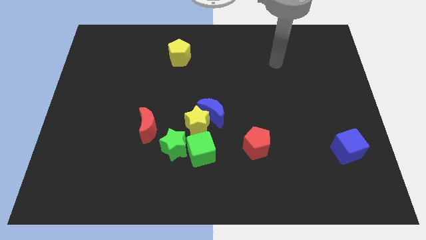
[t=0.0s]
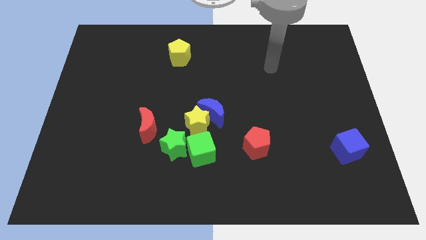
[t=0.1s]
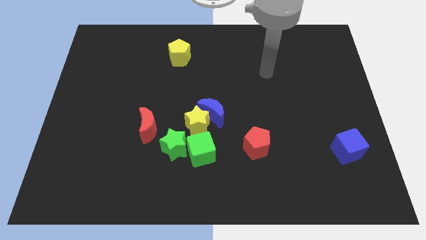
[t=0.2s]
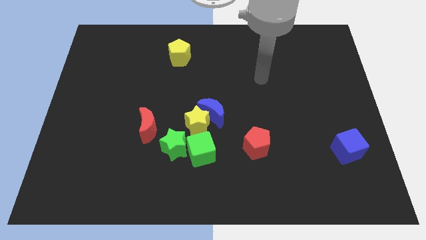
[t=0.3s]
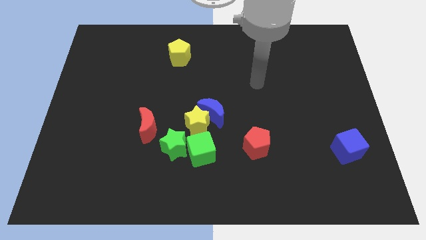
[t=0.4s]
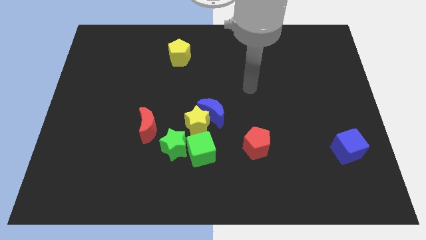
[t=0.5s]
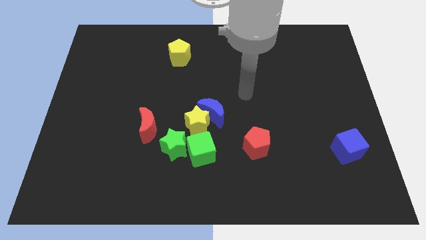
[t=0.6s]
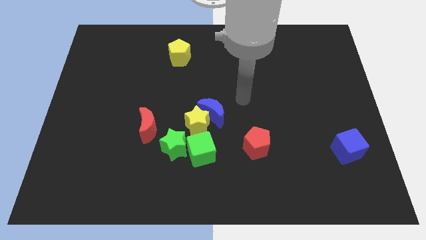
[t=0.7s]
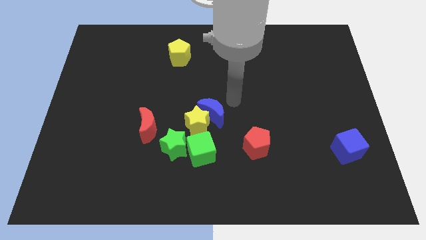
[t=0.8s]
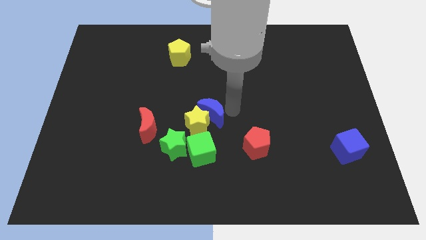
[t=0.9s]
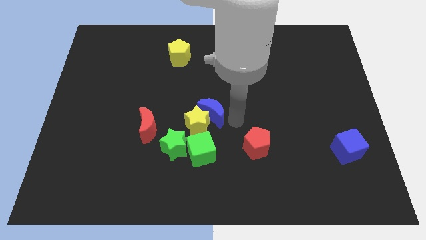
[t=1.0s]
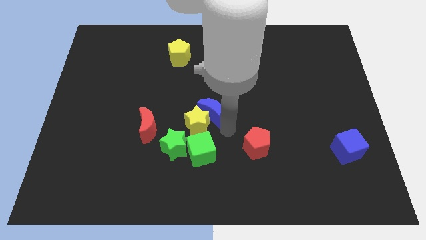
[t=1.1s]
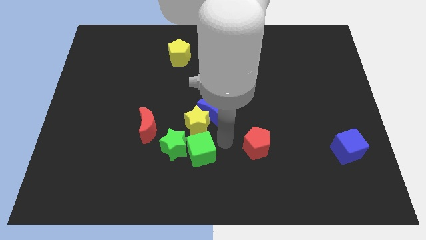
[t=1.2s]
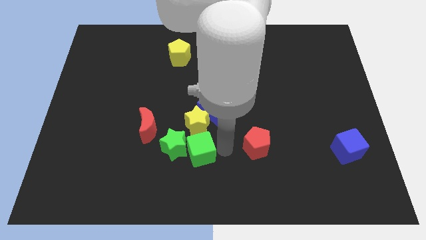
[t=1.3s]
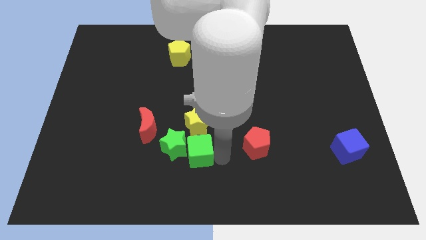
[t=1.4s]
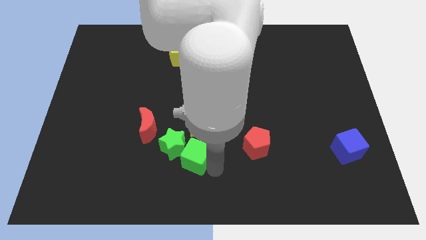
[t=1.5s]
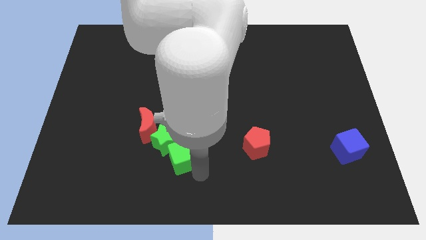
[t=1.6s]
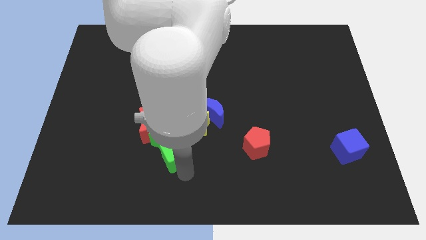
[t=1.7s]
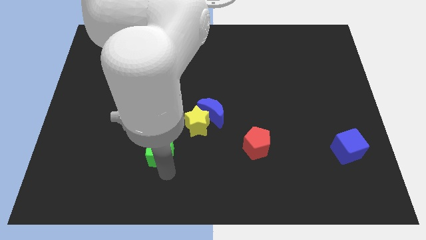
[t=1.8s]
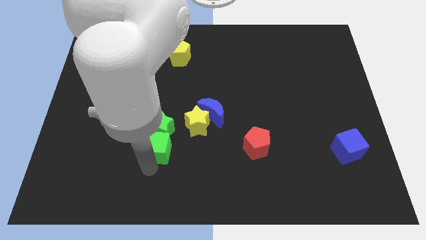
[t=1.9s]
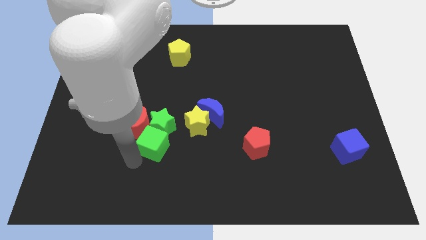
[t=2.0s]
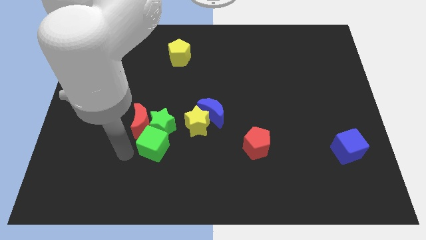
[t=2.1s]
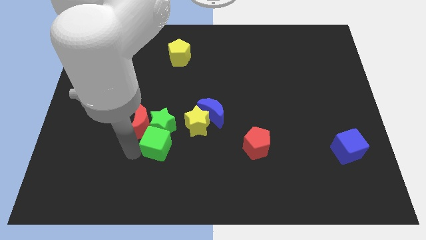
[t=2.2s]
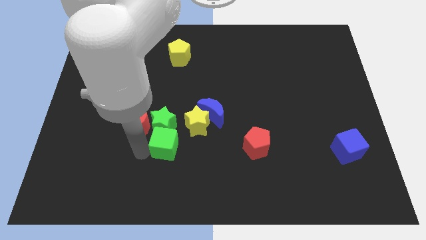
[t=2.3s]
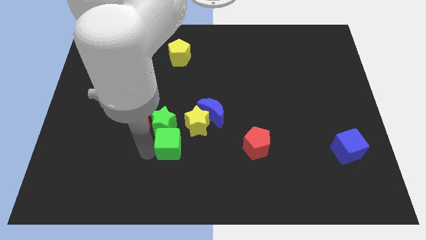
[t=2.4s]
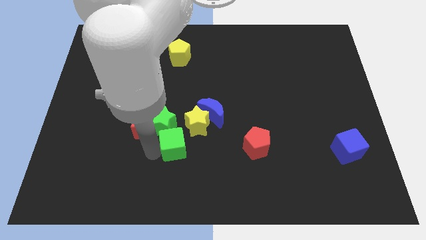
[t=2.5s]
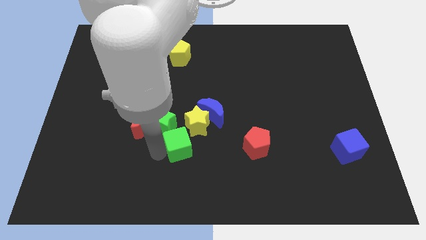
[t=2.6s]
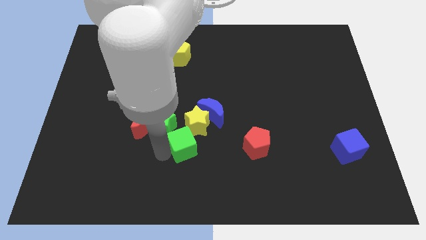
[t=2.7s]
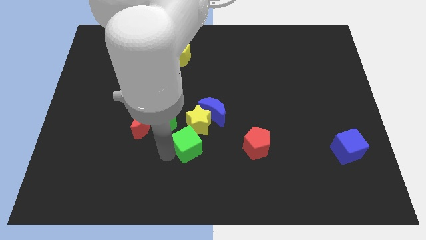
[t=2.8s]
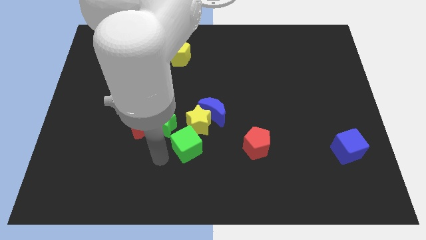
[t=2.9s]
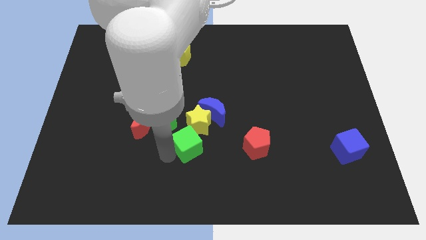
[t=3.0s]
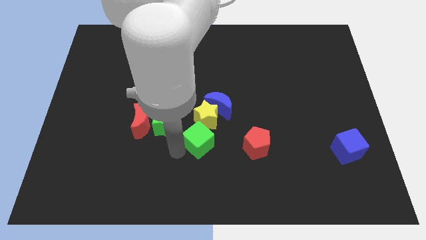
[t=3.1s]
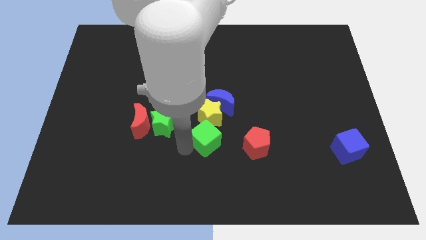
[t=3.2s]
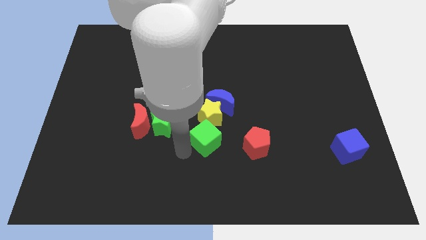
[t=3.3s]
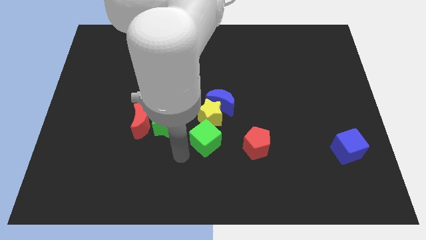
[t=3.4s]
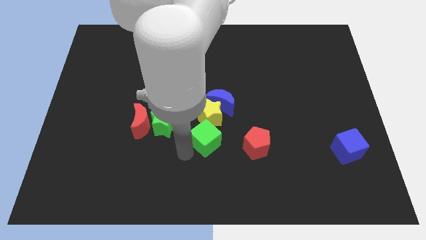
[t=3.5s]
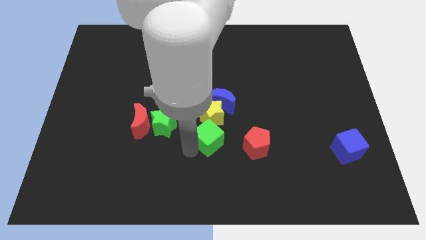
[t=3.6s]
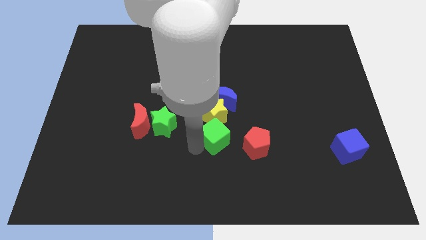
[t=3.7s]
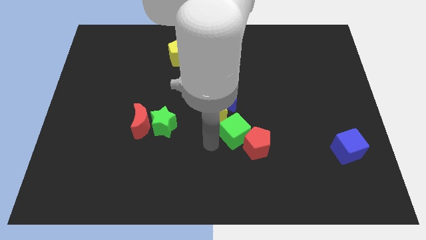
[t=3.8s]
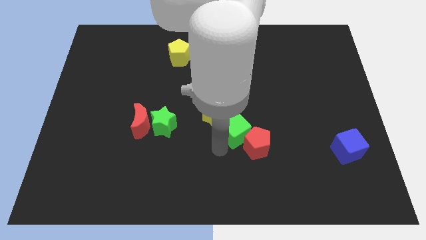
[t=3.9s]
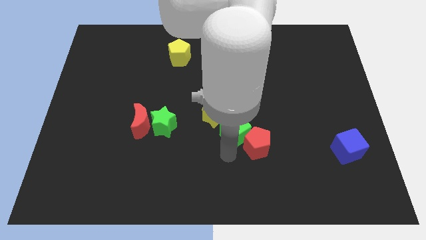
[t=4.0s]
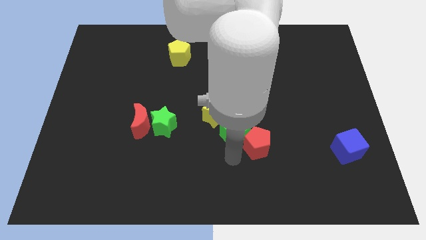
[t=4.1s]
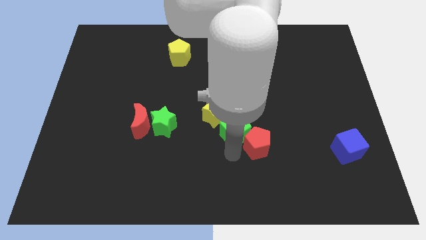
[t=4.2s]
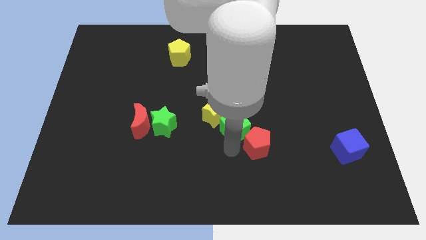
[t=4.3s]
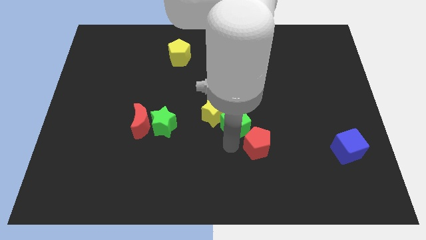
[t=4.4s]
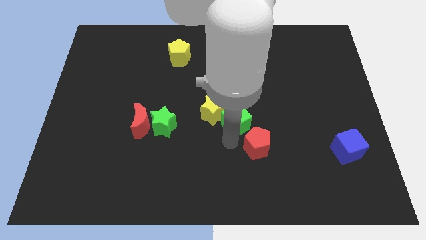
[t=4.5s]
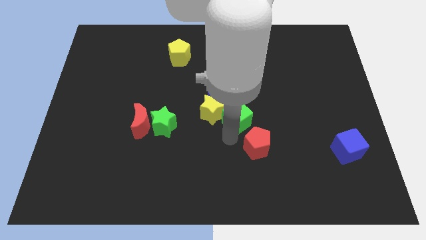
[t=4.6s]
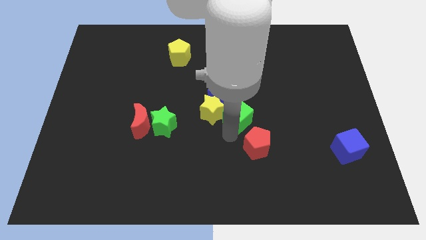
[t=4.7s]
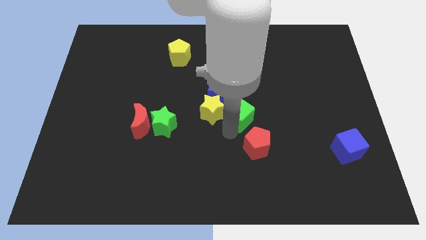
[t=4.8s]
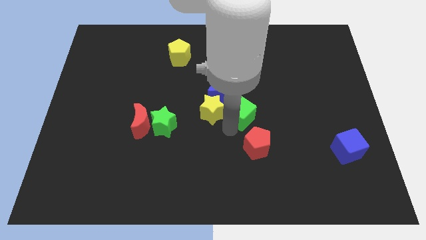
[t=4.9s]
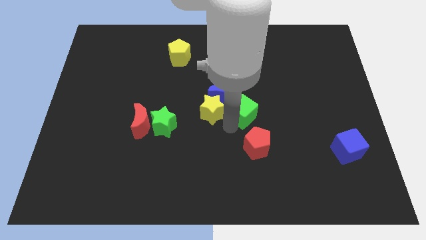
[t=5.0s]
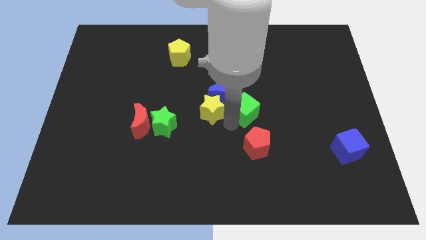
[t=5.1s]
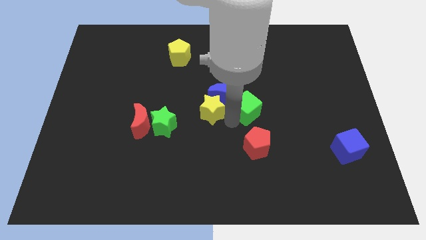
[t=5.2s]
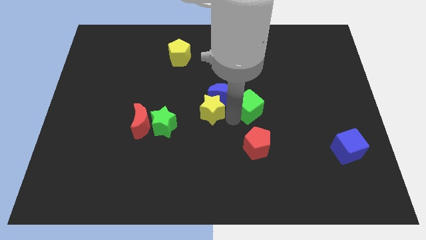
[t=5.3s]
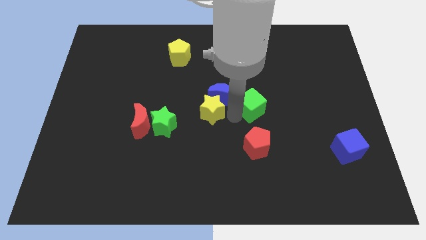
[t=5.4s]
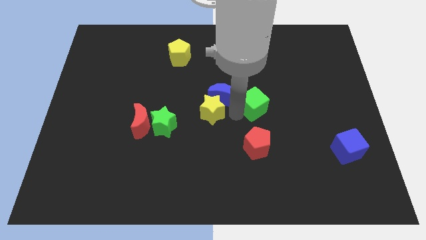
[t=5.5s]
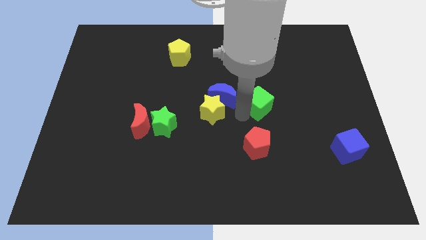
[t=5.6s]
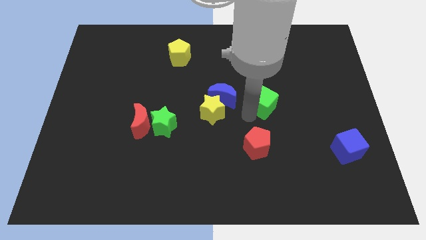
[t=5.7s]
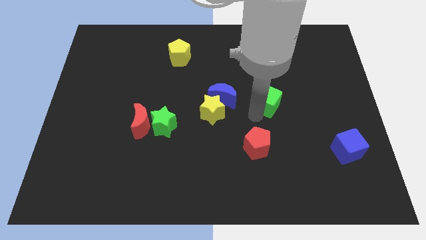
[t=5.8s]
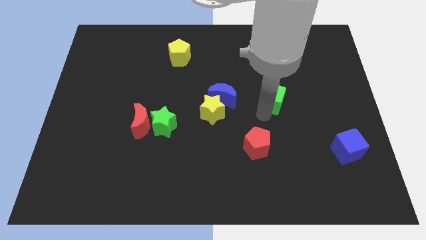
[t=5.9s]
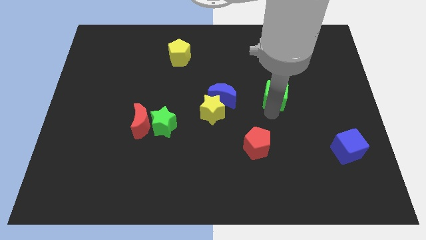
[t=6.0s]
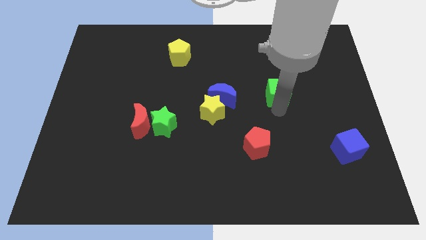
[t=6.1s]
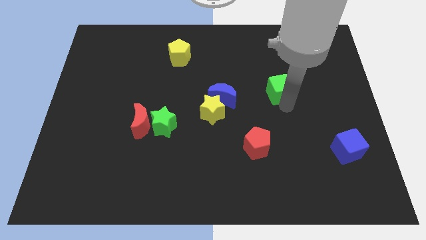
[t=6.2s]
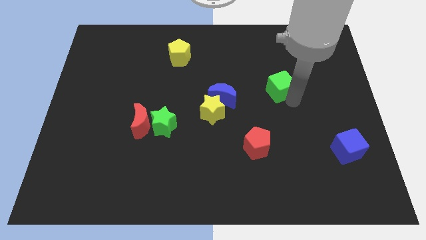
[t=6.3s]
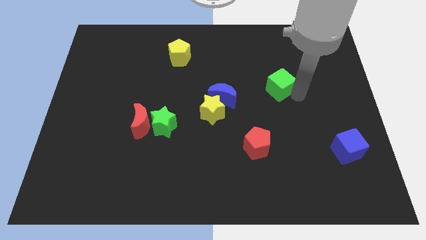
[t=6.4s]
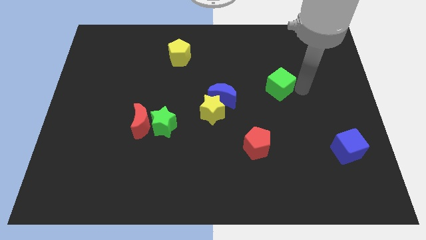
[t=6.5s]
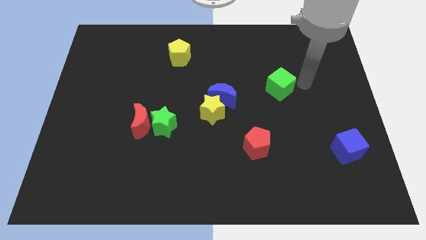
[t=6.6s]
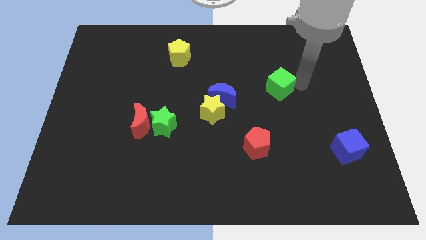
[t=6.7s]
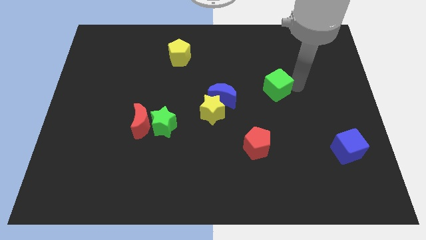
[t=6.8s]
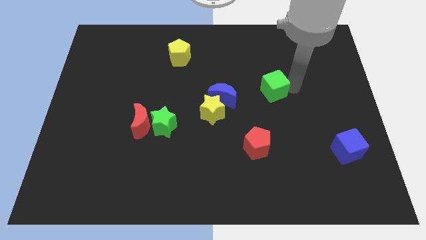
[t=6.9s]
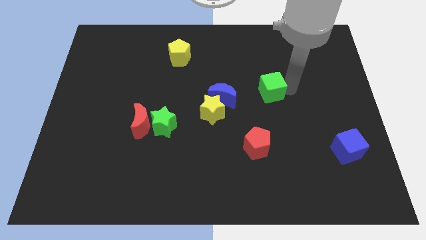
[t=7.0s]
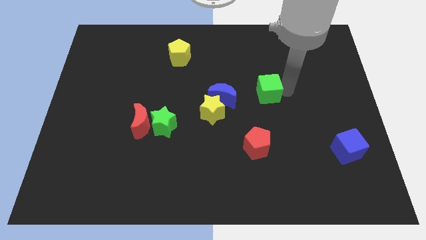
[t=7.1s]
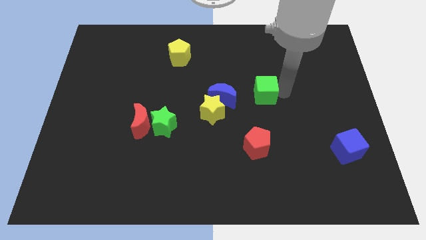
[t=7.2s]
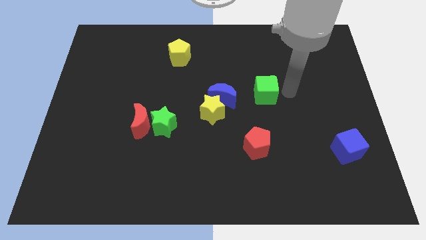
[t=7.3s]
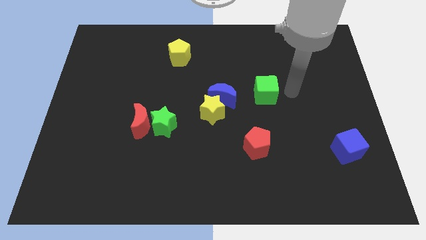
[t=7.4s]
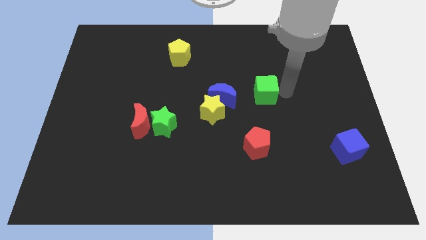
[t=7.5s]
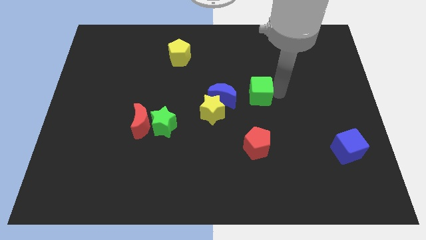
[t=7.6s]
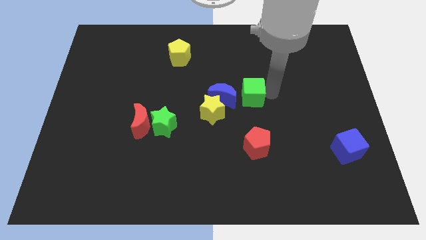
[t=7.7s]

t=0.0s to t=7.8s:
move the green cube to the top right of the yellow star
